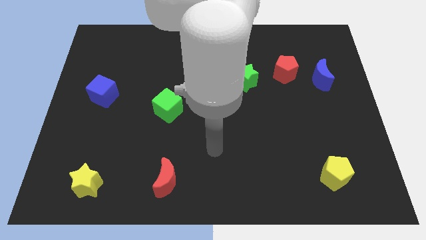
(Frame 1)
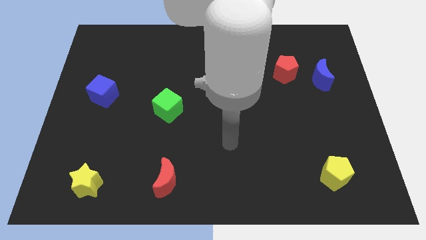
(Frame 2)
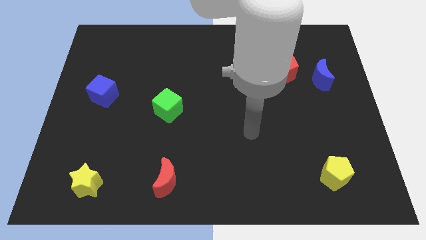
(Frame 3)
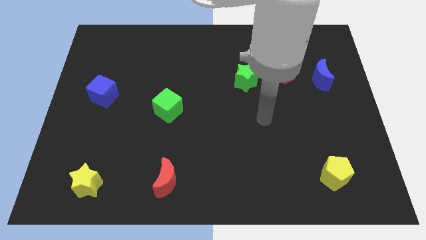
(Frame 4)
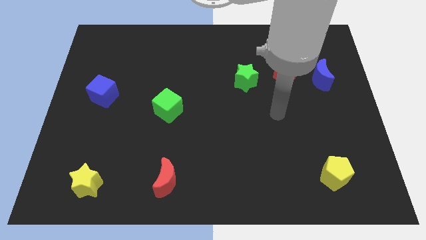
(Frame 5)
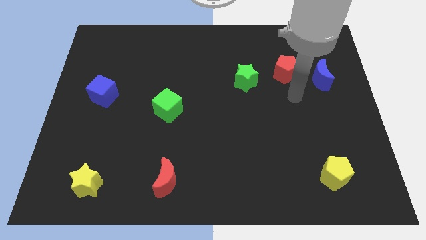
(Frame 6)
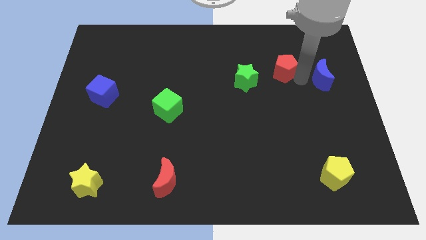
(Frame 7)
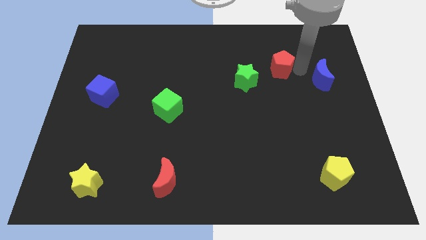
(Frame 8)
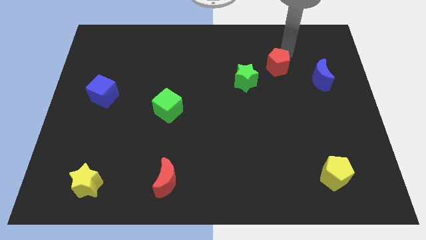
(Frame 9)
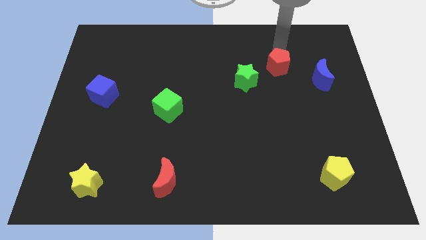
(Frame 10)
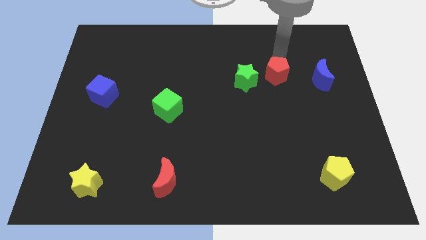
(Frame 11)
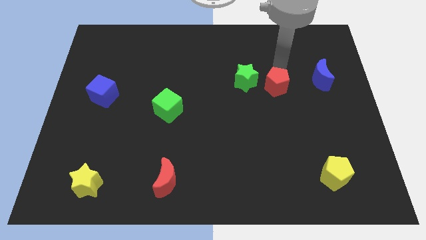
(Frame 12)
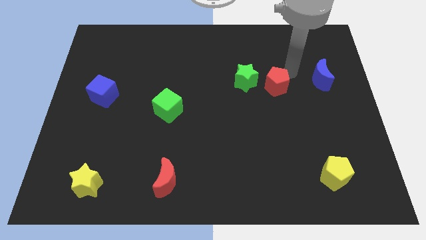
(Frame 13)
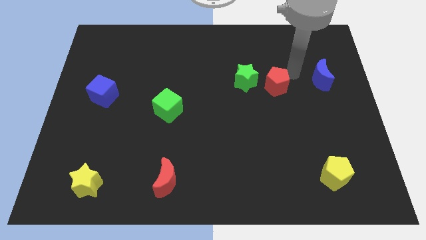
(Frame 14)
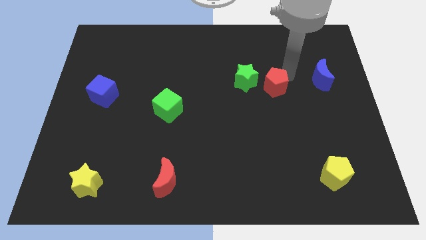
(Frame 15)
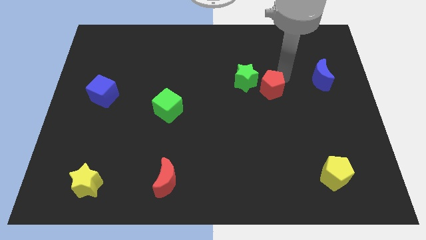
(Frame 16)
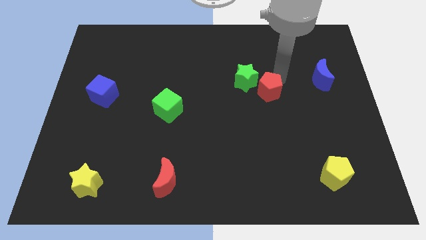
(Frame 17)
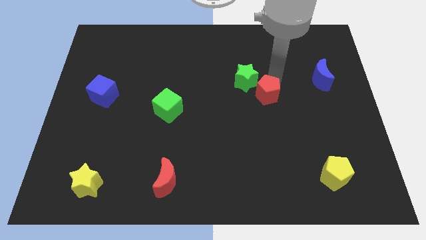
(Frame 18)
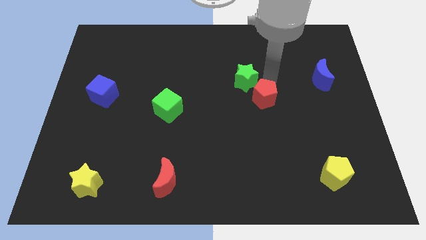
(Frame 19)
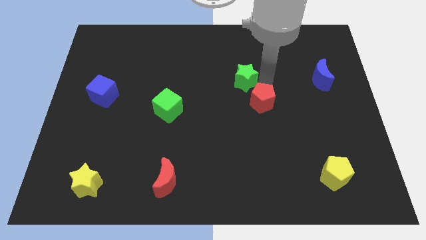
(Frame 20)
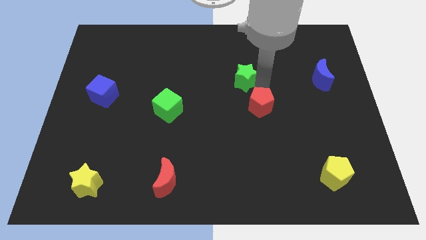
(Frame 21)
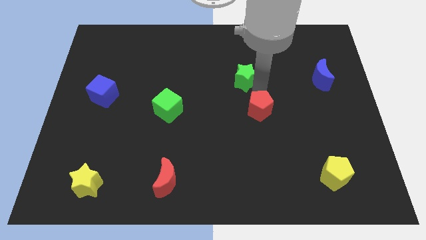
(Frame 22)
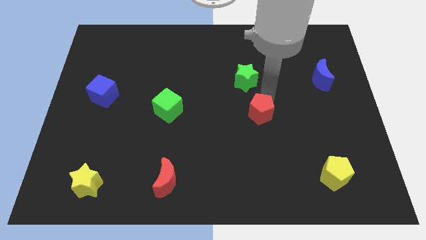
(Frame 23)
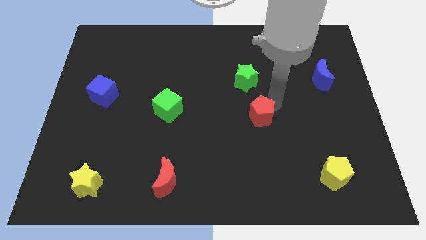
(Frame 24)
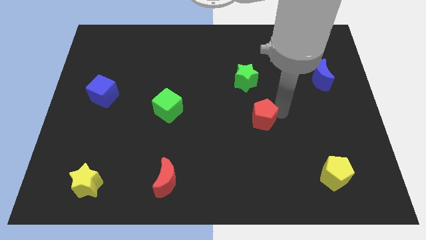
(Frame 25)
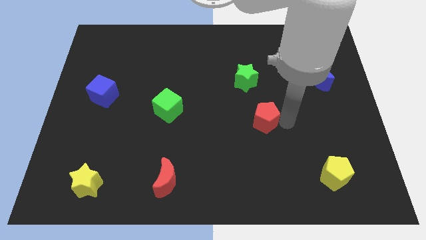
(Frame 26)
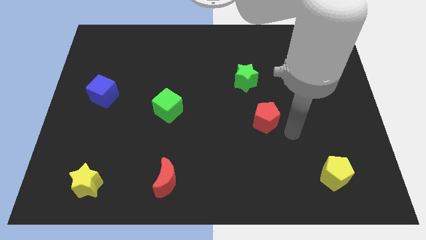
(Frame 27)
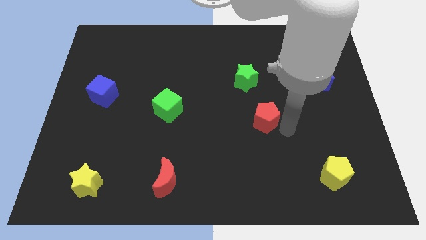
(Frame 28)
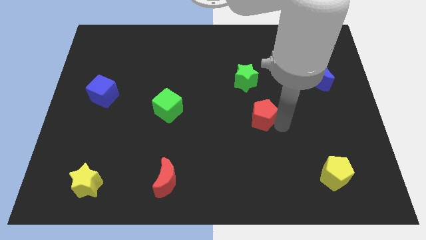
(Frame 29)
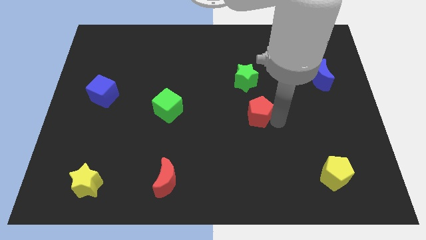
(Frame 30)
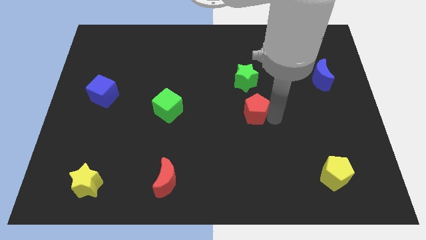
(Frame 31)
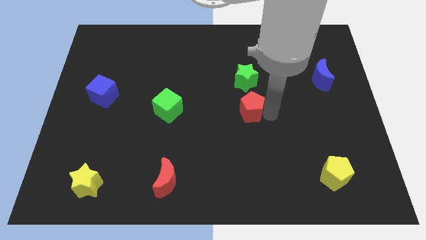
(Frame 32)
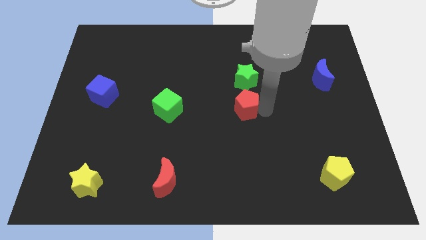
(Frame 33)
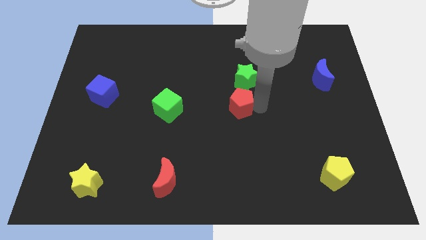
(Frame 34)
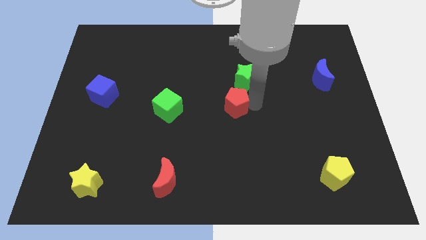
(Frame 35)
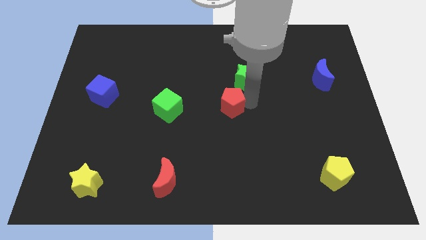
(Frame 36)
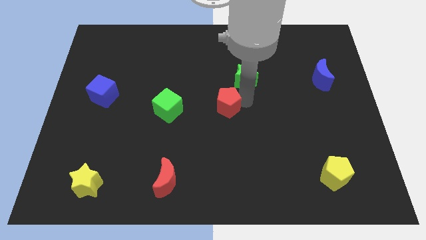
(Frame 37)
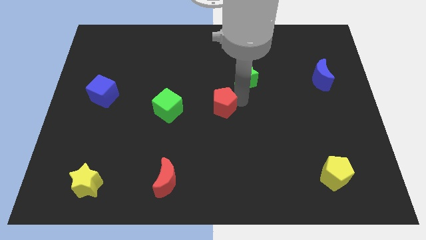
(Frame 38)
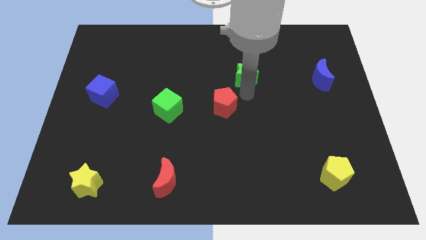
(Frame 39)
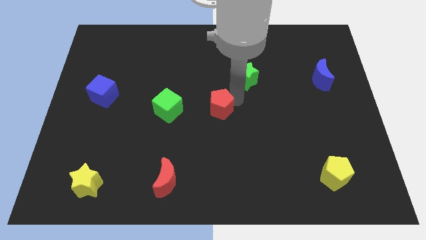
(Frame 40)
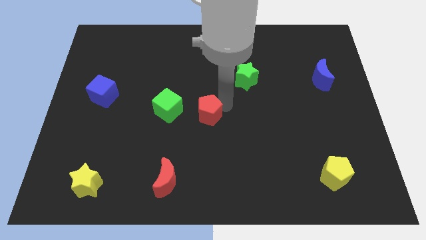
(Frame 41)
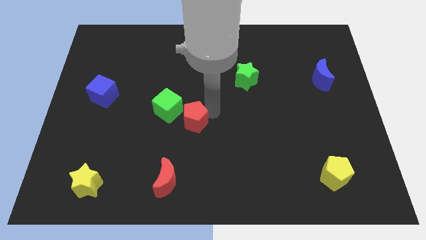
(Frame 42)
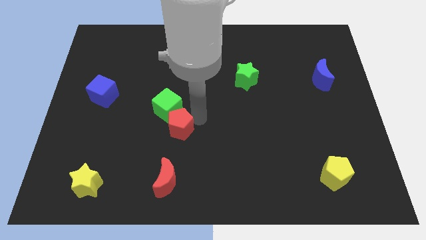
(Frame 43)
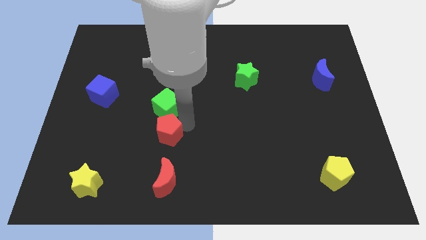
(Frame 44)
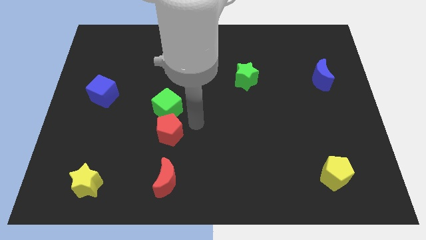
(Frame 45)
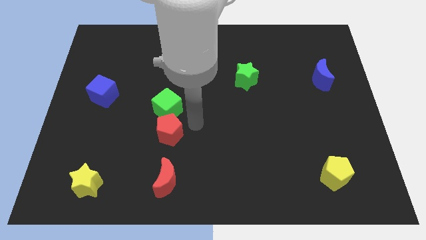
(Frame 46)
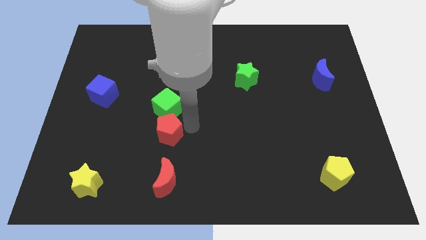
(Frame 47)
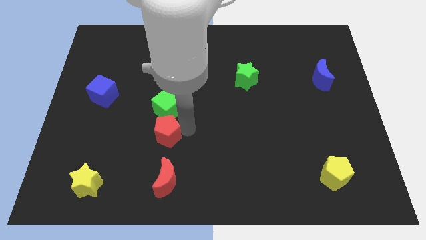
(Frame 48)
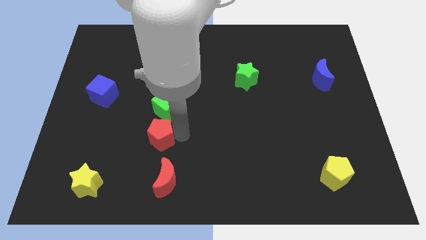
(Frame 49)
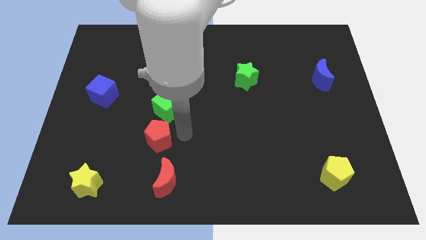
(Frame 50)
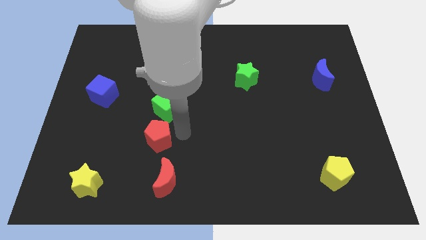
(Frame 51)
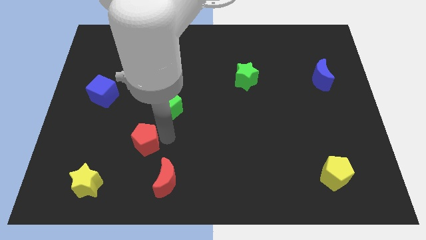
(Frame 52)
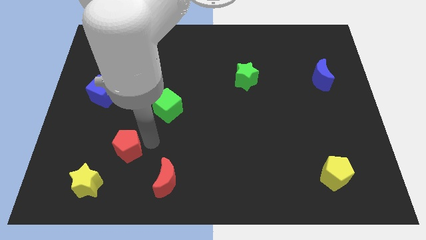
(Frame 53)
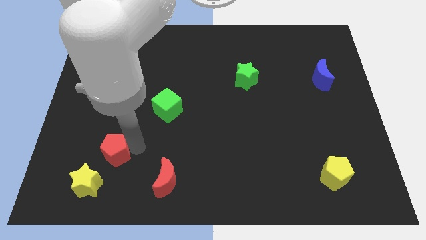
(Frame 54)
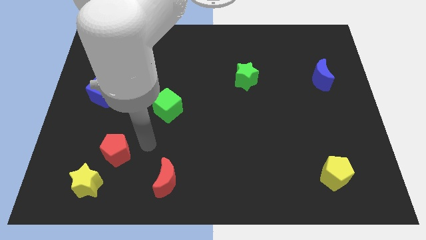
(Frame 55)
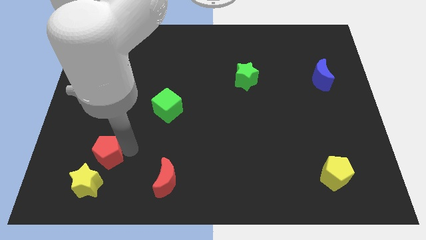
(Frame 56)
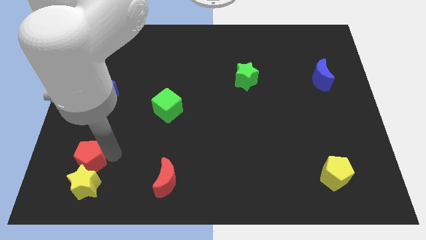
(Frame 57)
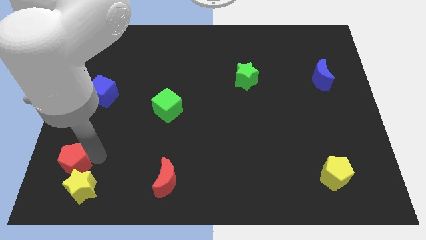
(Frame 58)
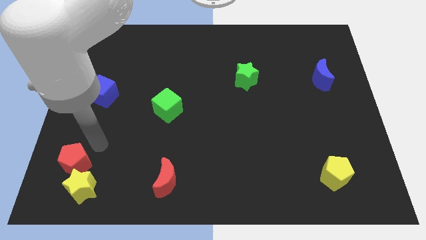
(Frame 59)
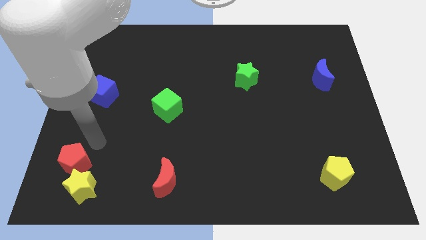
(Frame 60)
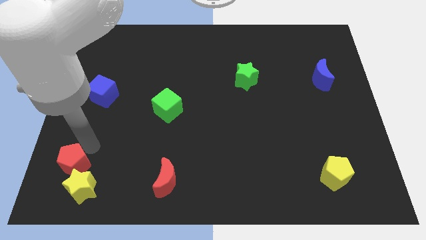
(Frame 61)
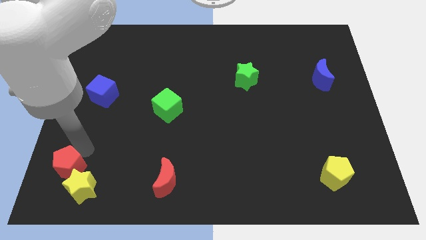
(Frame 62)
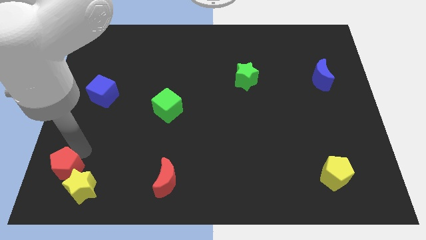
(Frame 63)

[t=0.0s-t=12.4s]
push the red pentagon to the lower left corner
